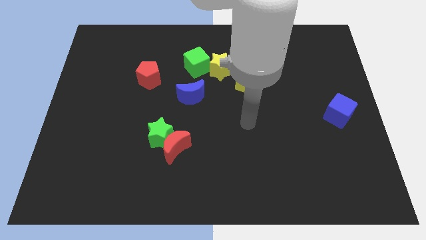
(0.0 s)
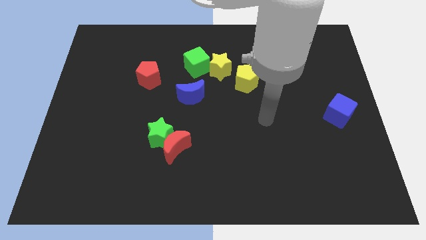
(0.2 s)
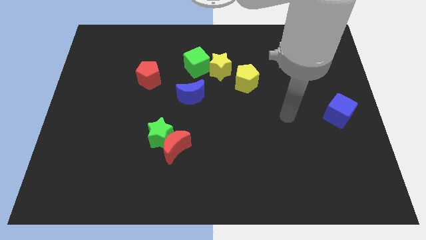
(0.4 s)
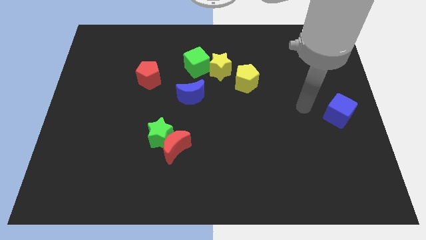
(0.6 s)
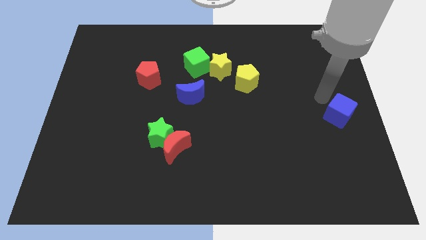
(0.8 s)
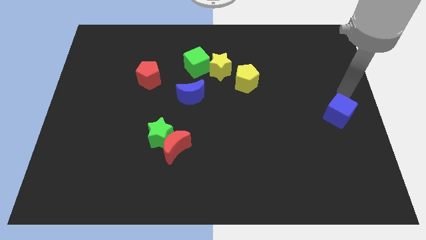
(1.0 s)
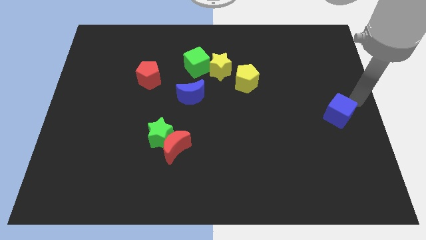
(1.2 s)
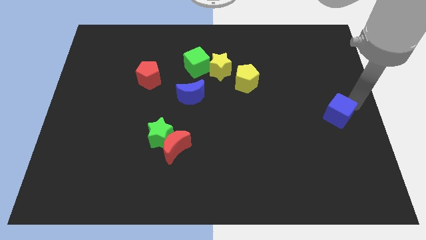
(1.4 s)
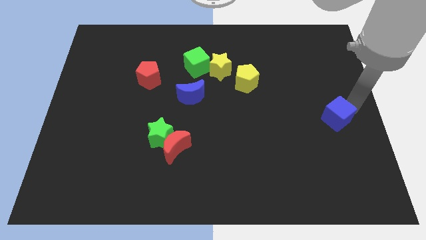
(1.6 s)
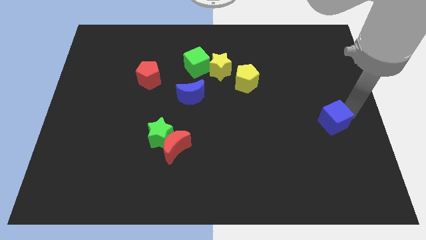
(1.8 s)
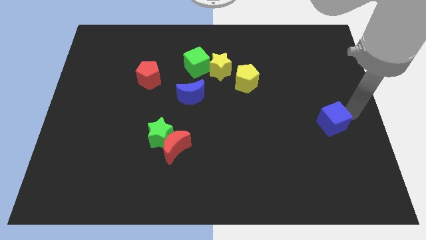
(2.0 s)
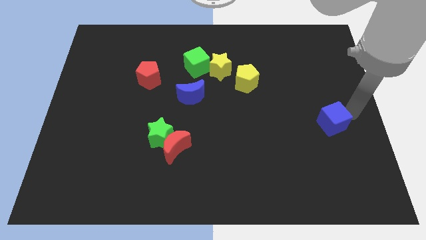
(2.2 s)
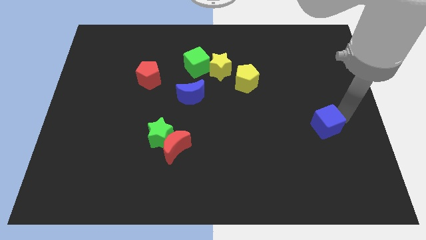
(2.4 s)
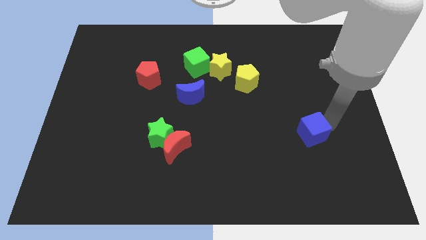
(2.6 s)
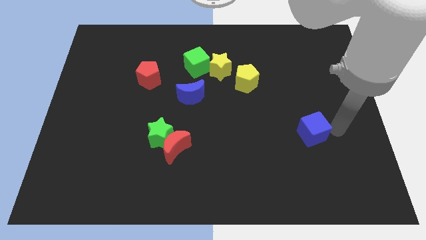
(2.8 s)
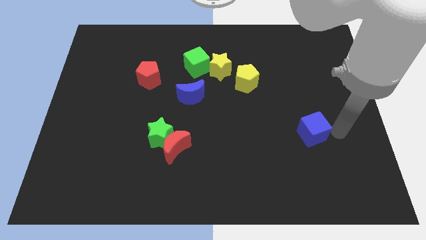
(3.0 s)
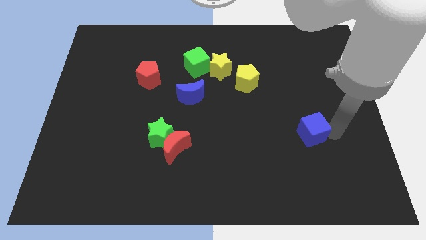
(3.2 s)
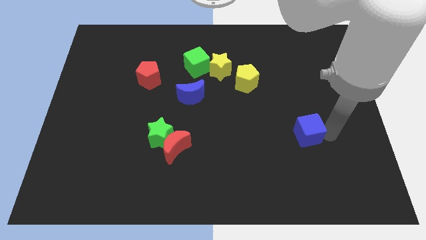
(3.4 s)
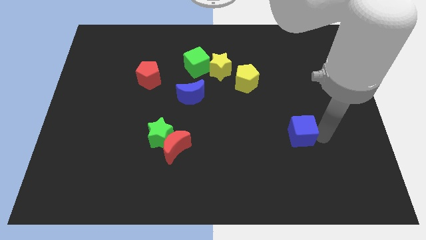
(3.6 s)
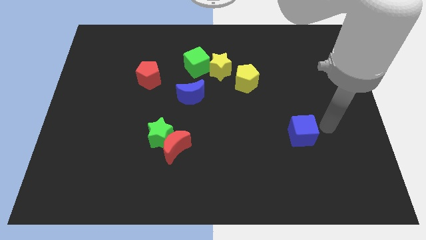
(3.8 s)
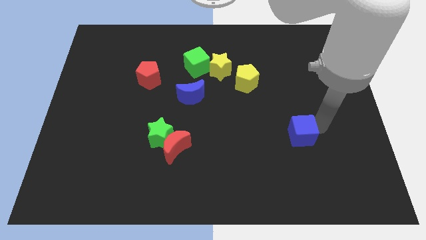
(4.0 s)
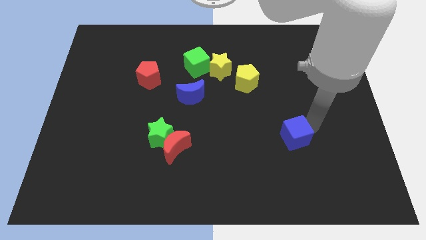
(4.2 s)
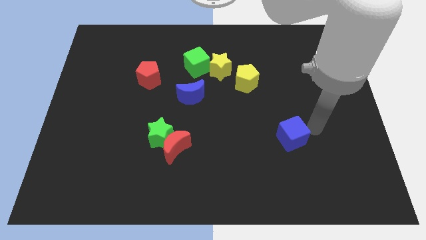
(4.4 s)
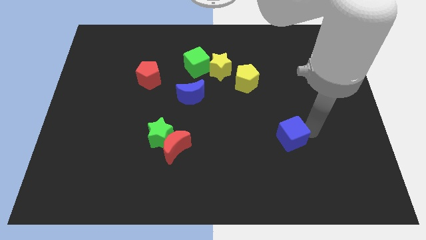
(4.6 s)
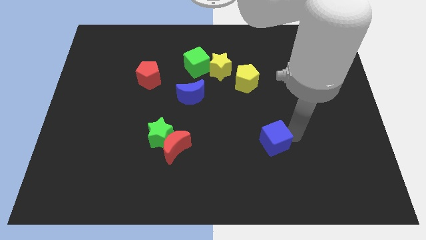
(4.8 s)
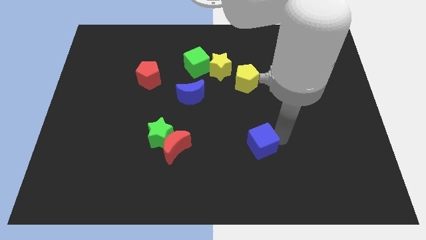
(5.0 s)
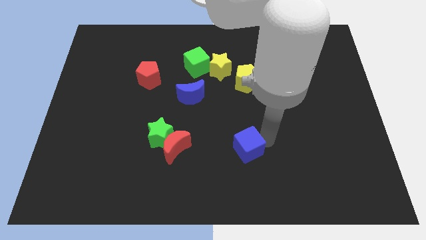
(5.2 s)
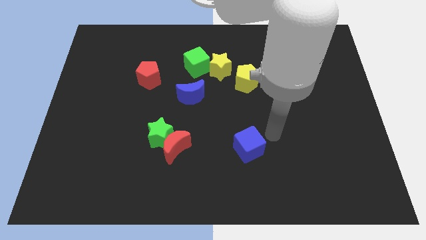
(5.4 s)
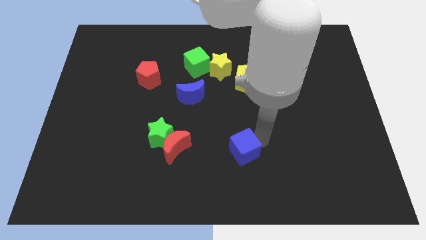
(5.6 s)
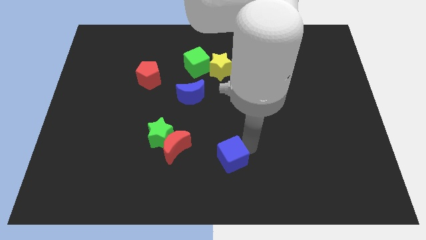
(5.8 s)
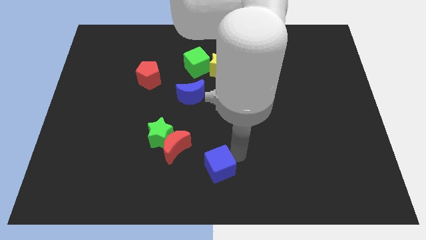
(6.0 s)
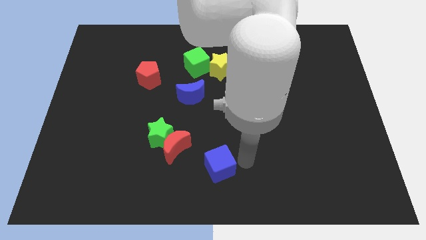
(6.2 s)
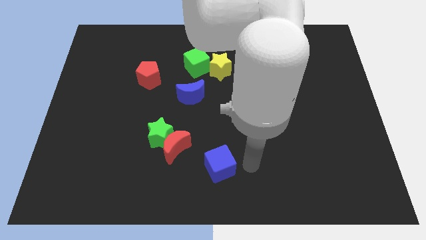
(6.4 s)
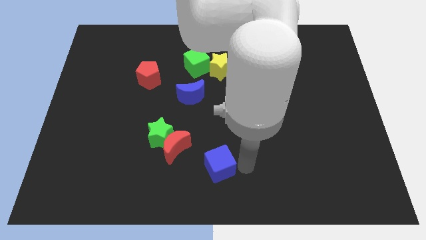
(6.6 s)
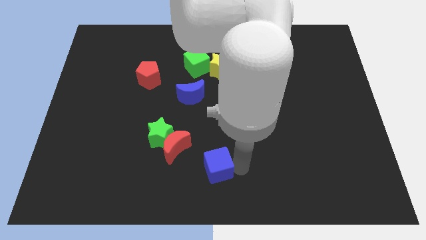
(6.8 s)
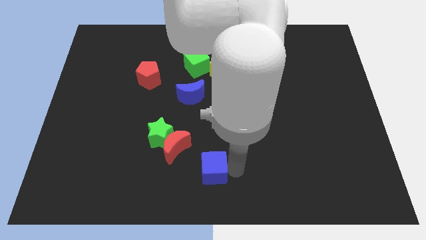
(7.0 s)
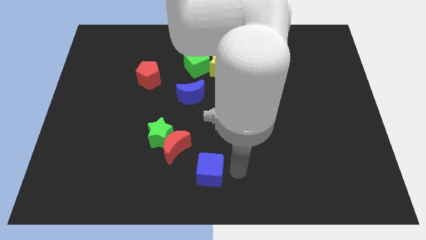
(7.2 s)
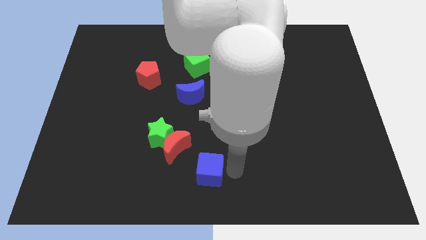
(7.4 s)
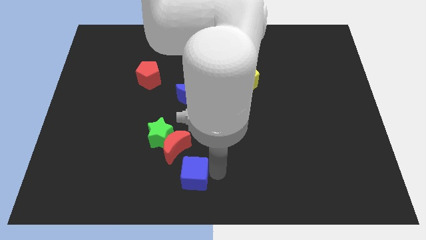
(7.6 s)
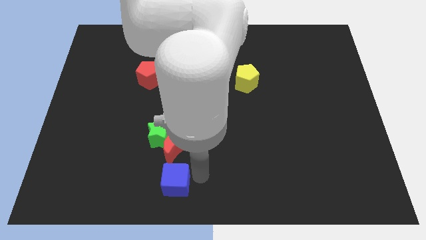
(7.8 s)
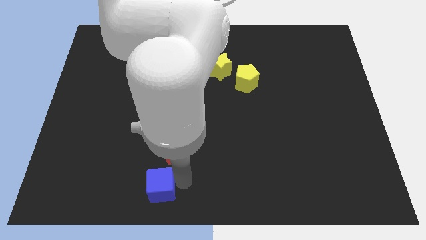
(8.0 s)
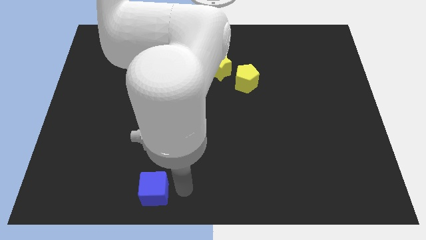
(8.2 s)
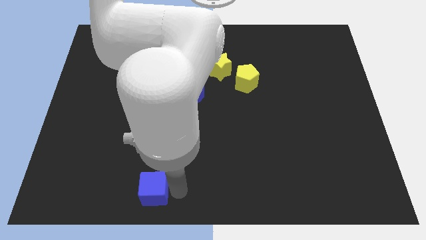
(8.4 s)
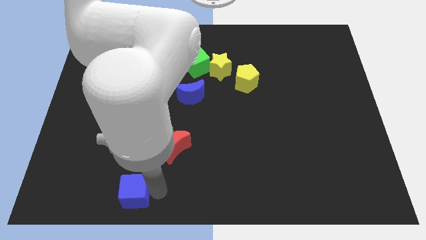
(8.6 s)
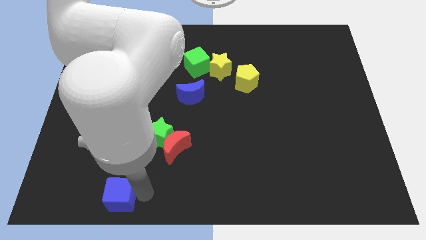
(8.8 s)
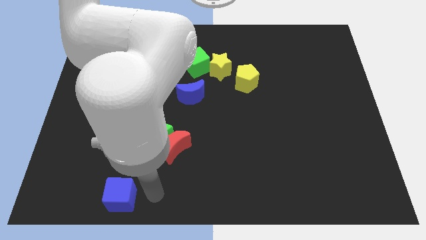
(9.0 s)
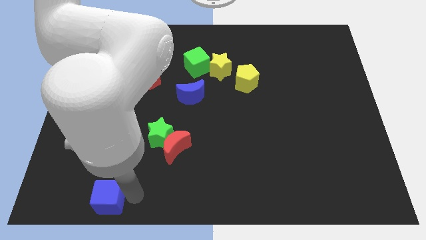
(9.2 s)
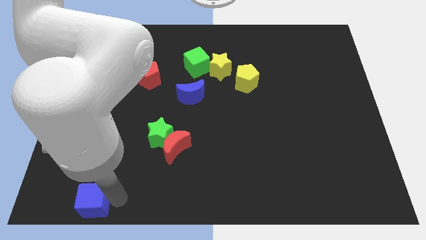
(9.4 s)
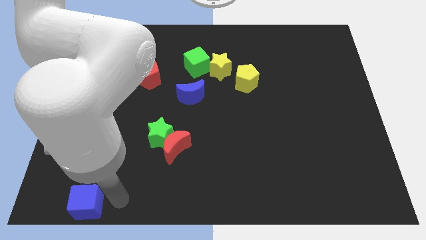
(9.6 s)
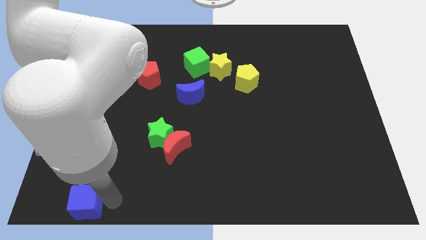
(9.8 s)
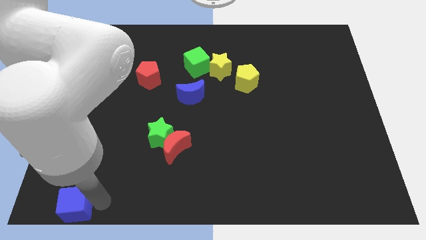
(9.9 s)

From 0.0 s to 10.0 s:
move the blue cube to the bottom left of the board

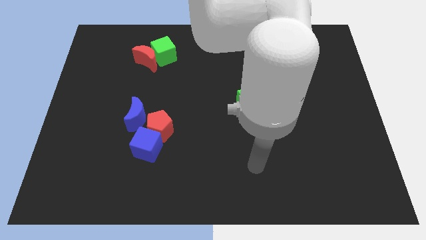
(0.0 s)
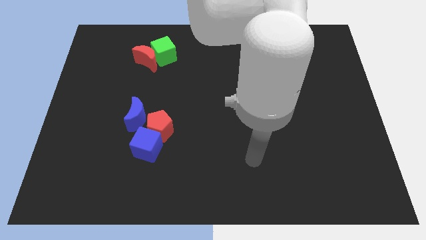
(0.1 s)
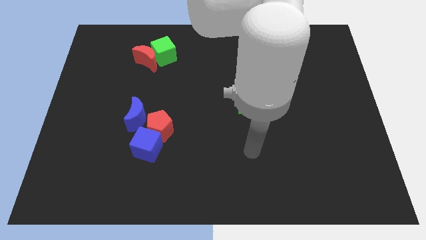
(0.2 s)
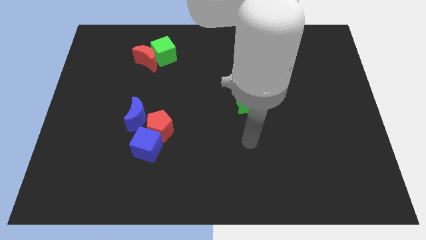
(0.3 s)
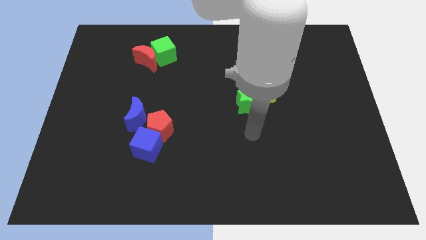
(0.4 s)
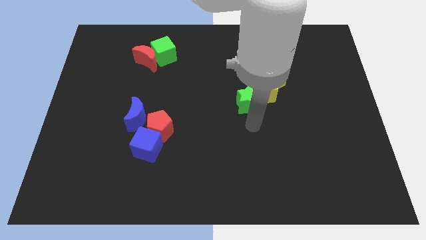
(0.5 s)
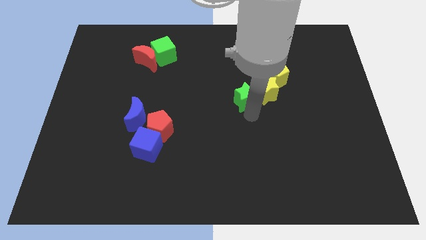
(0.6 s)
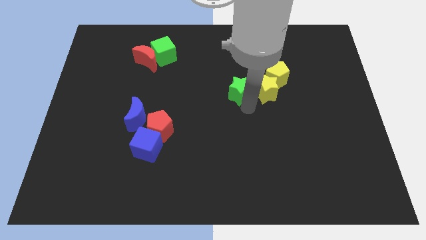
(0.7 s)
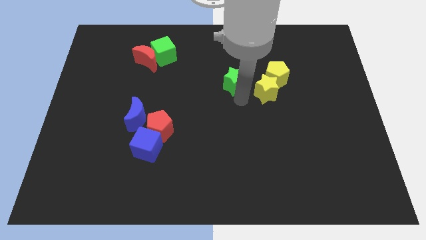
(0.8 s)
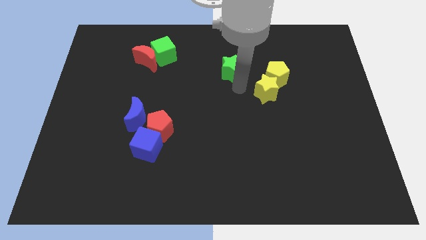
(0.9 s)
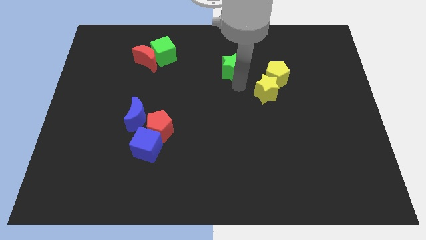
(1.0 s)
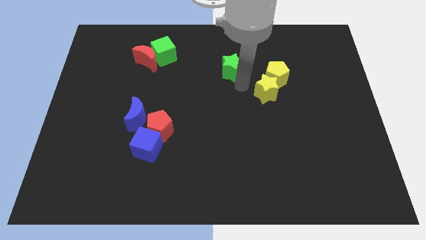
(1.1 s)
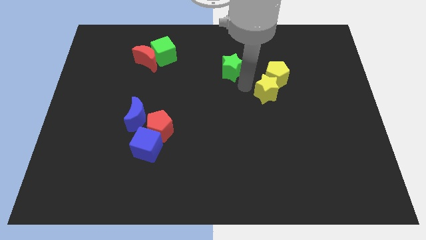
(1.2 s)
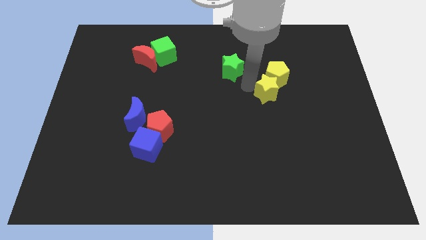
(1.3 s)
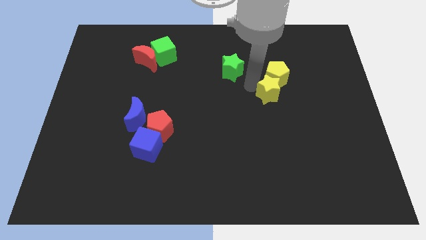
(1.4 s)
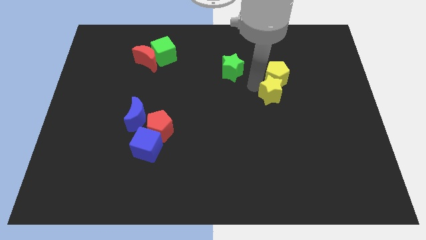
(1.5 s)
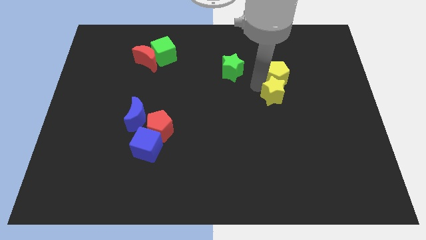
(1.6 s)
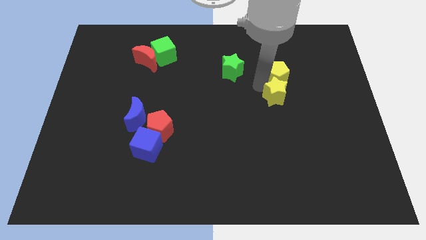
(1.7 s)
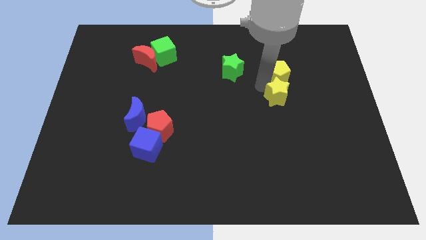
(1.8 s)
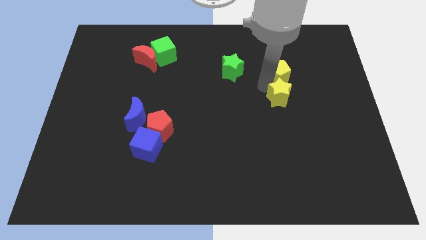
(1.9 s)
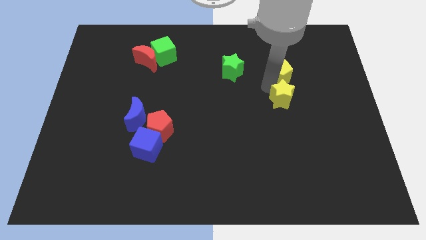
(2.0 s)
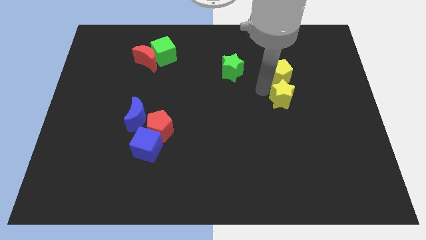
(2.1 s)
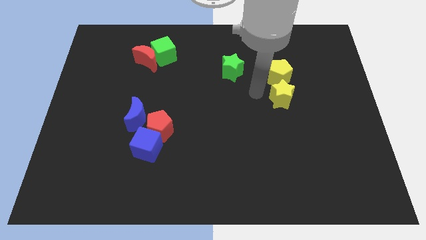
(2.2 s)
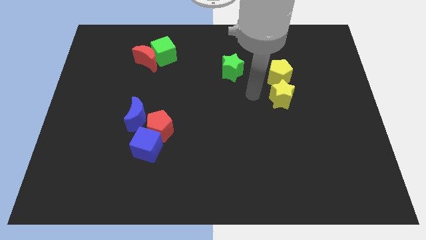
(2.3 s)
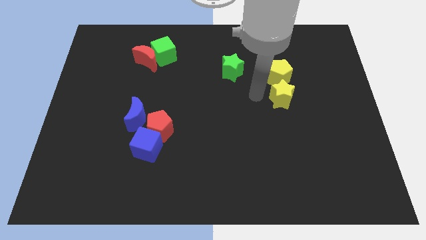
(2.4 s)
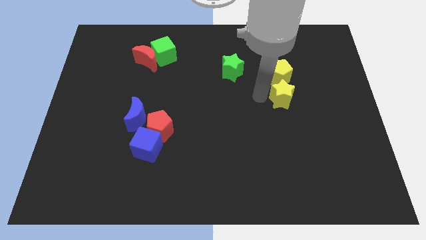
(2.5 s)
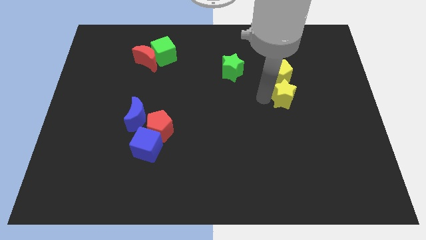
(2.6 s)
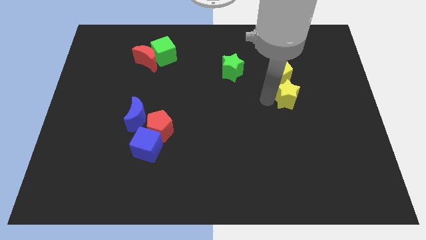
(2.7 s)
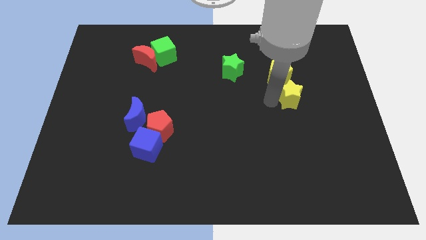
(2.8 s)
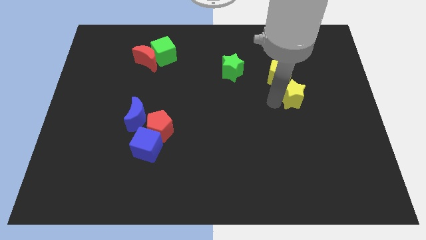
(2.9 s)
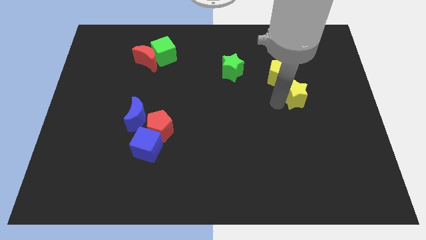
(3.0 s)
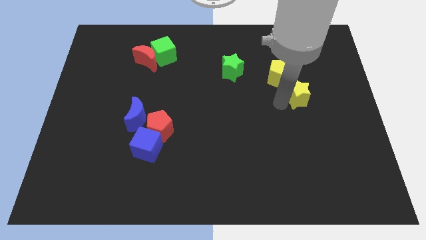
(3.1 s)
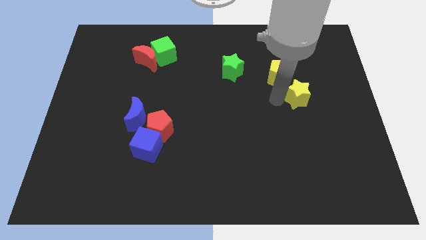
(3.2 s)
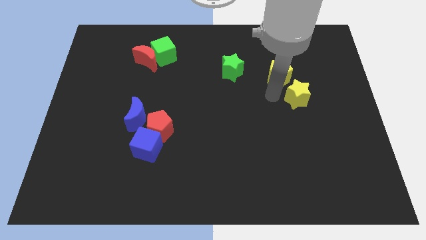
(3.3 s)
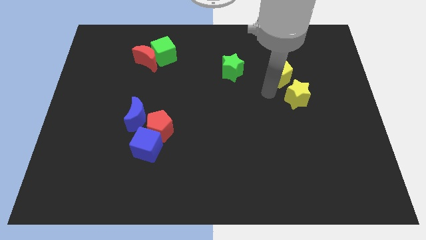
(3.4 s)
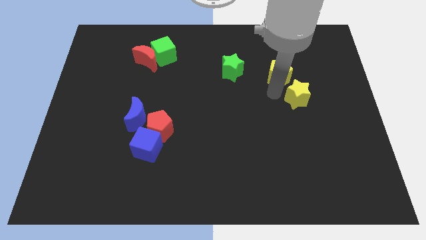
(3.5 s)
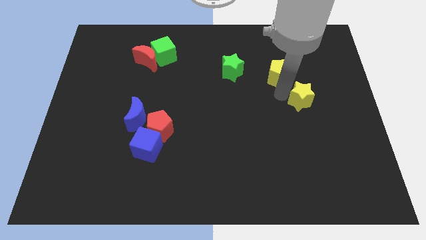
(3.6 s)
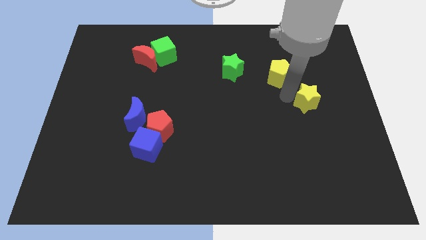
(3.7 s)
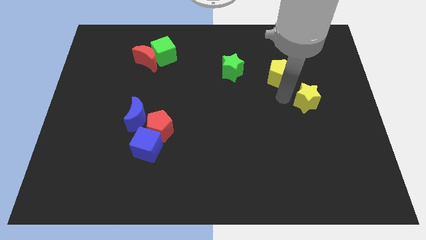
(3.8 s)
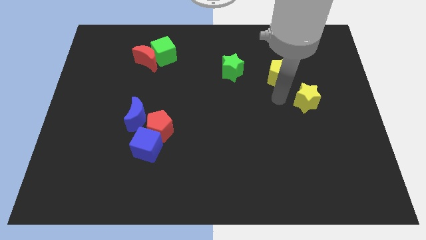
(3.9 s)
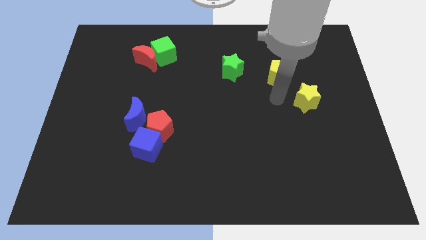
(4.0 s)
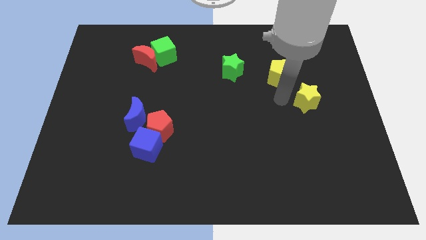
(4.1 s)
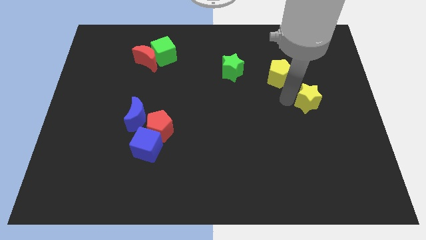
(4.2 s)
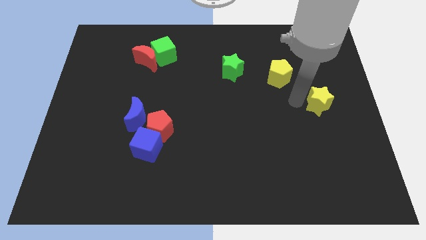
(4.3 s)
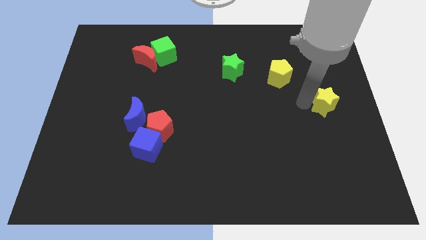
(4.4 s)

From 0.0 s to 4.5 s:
put the yellow star to the right side of the board
